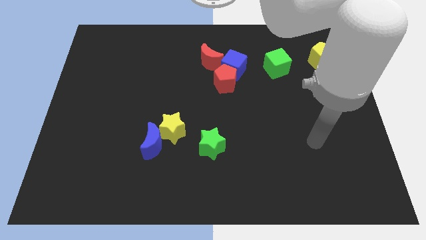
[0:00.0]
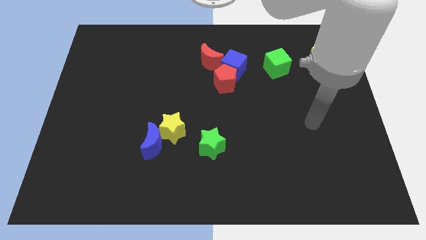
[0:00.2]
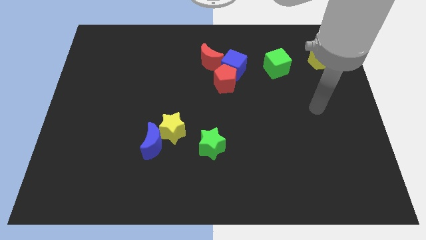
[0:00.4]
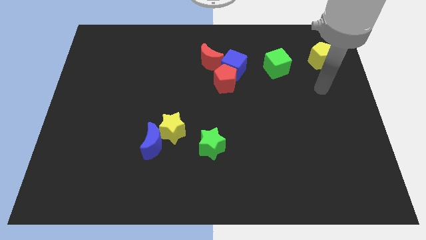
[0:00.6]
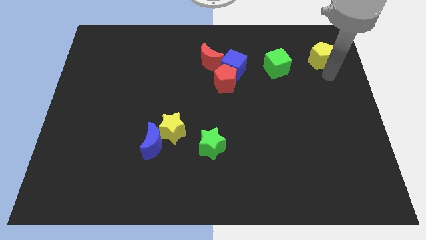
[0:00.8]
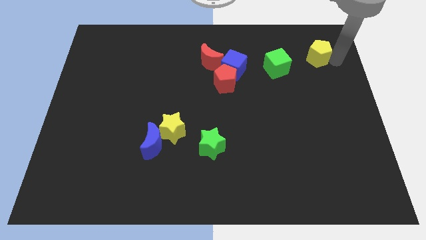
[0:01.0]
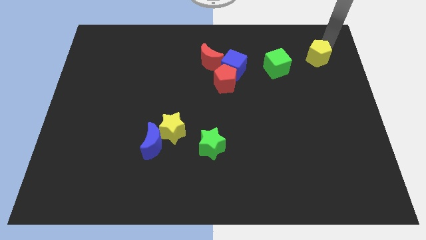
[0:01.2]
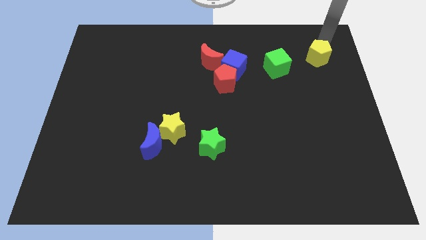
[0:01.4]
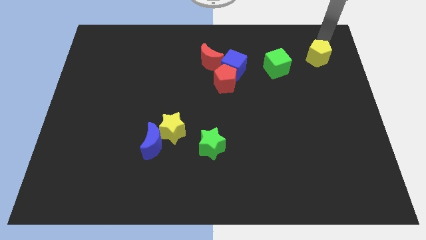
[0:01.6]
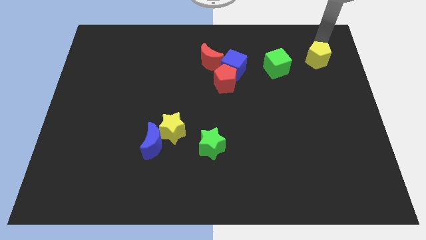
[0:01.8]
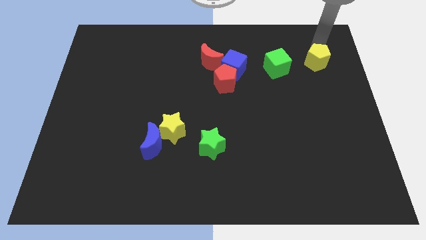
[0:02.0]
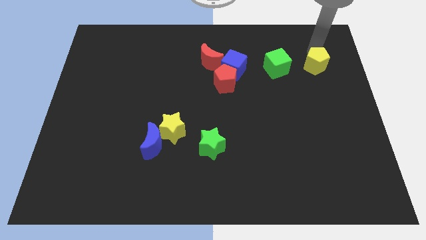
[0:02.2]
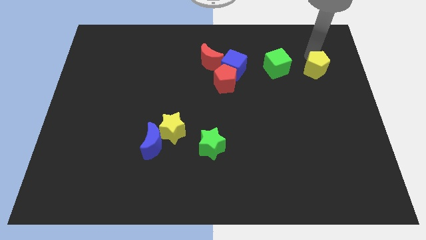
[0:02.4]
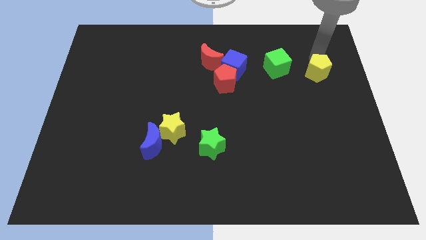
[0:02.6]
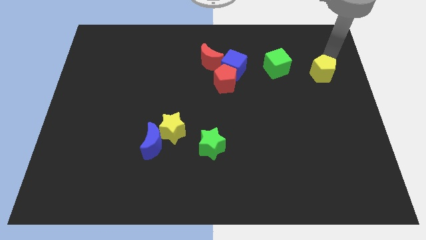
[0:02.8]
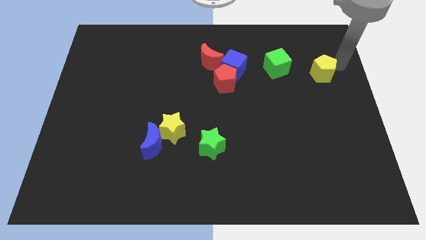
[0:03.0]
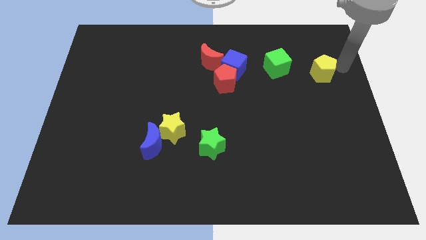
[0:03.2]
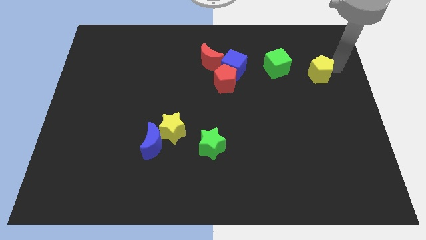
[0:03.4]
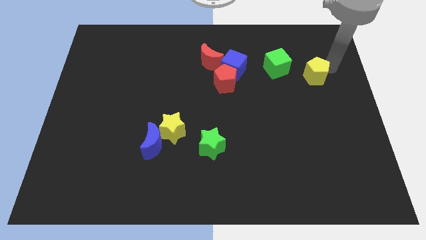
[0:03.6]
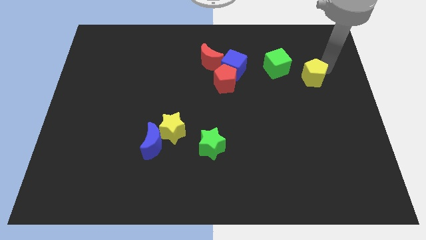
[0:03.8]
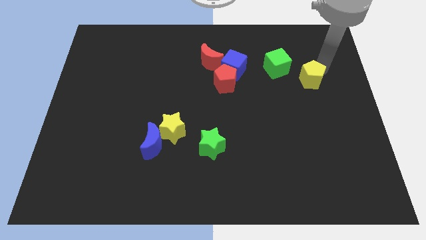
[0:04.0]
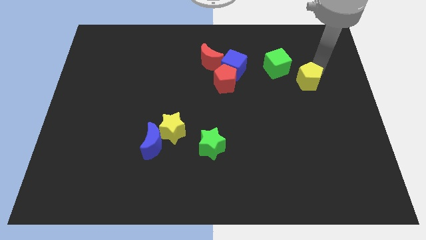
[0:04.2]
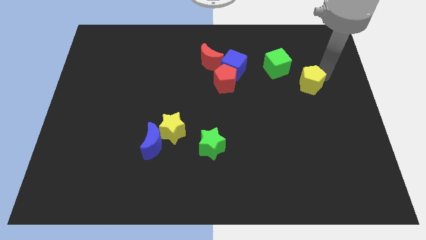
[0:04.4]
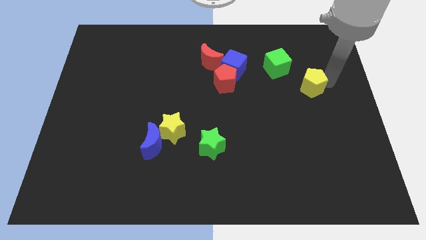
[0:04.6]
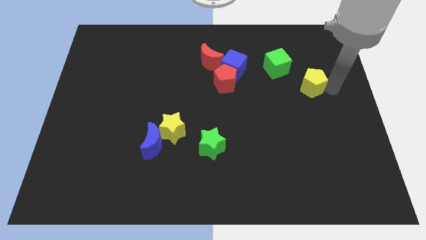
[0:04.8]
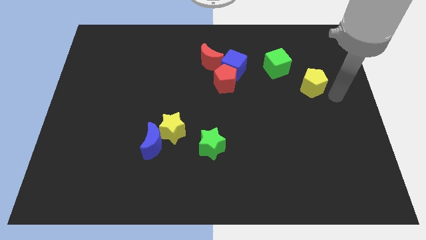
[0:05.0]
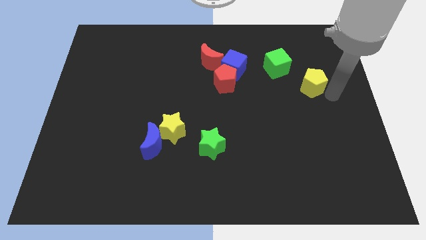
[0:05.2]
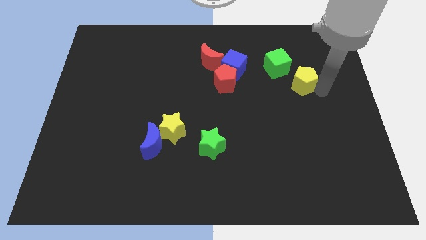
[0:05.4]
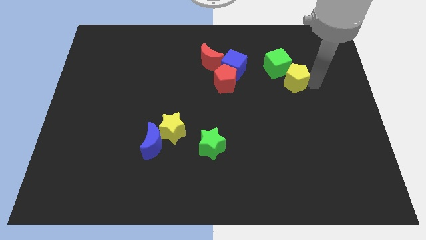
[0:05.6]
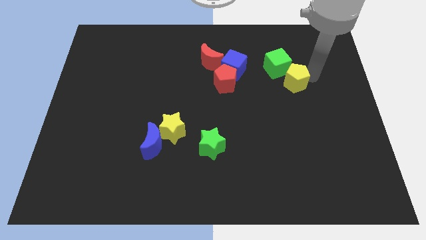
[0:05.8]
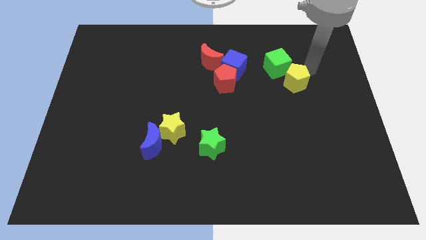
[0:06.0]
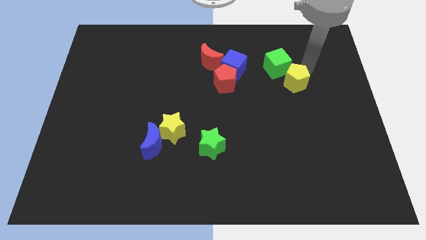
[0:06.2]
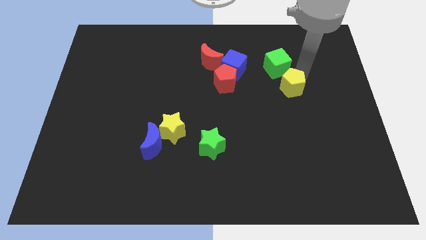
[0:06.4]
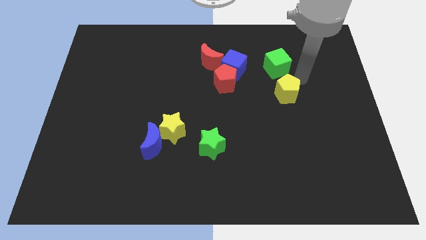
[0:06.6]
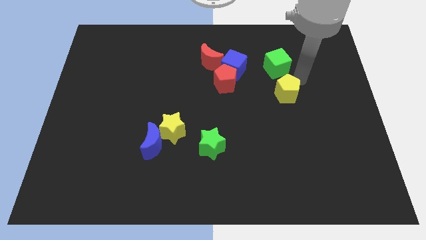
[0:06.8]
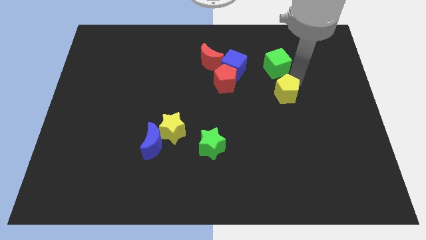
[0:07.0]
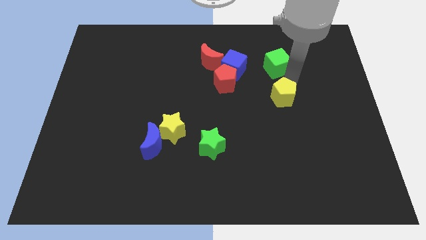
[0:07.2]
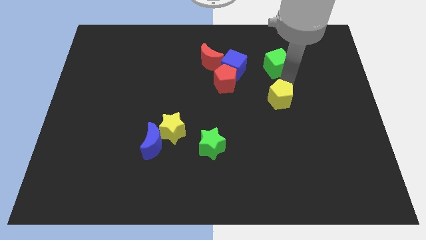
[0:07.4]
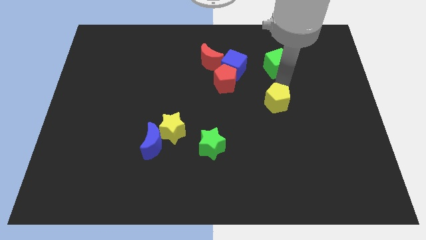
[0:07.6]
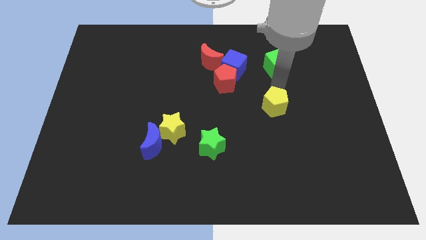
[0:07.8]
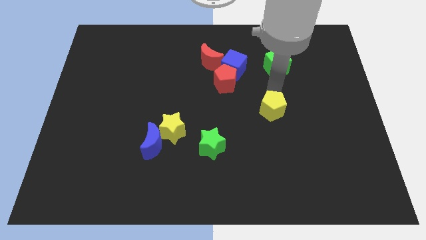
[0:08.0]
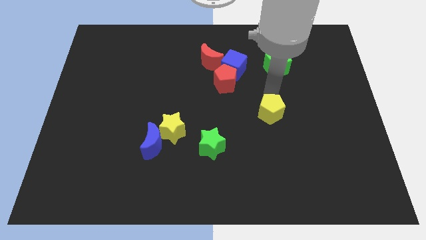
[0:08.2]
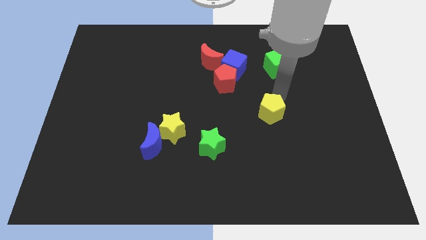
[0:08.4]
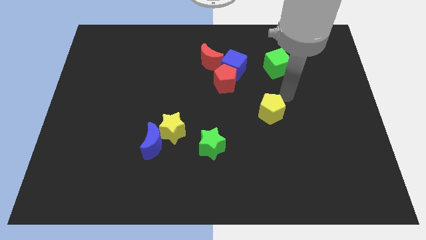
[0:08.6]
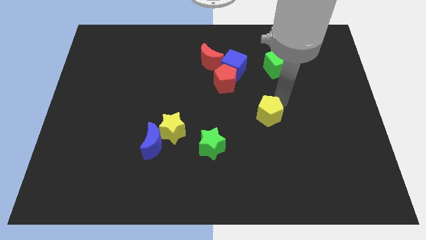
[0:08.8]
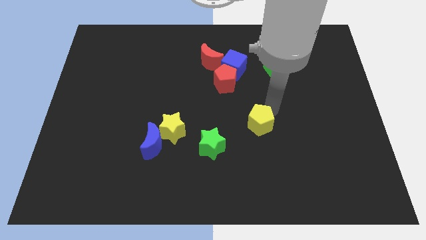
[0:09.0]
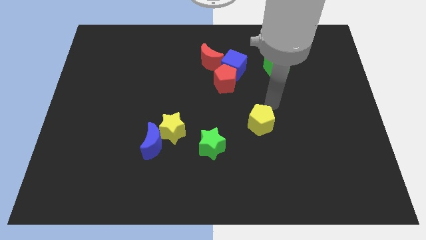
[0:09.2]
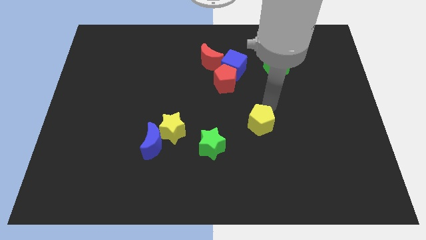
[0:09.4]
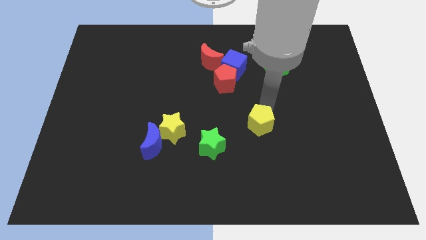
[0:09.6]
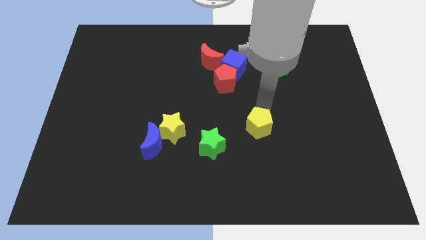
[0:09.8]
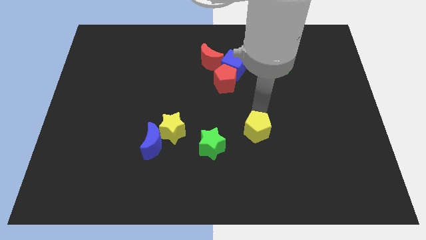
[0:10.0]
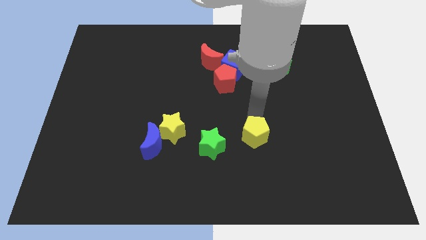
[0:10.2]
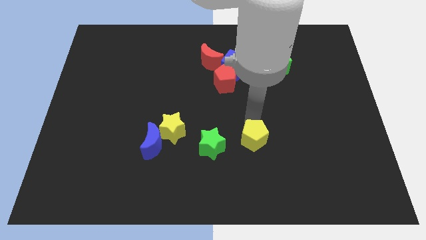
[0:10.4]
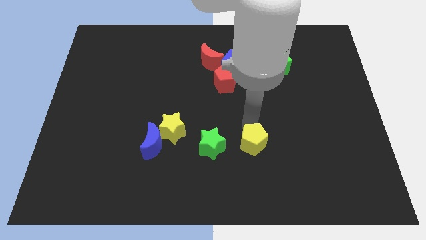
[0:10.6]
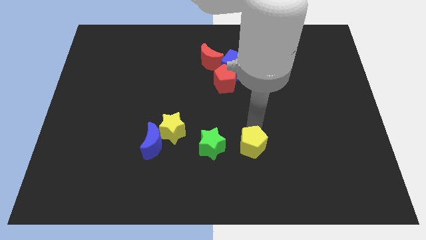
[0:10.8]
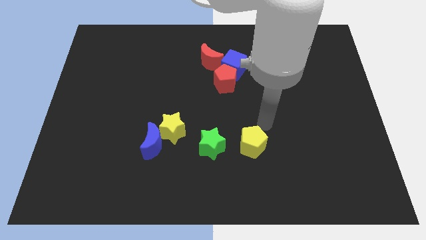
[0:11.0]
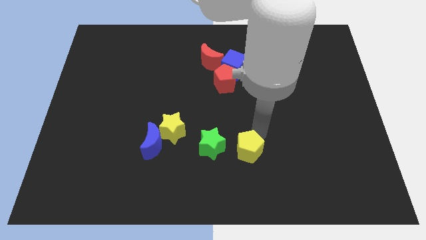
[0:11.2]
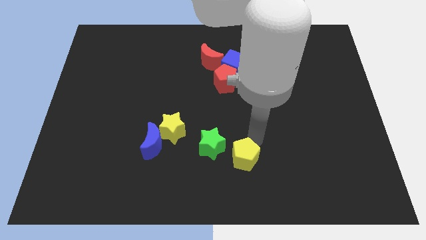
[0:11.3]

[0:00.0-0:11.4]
put the yellow pentagon to the bottom right of the green star

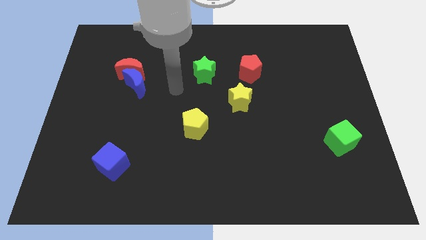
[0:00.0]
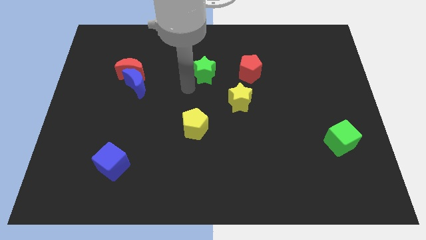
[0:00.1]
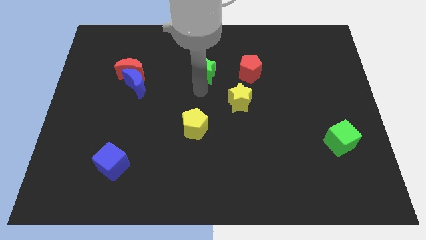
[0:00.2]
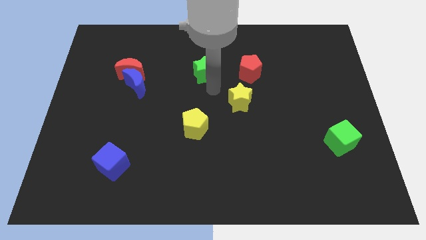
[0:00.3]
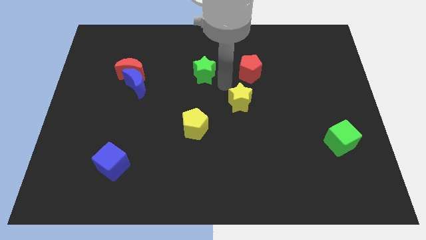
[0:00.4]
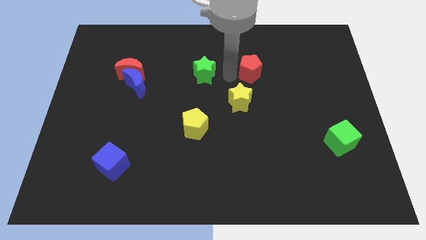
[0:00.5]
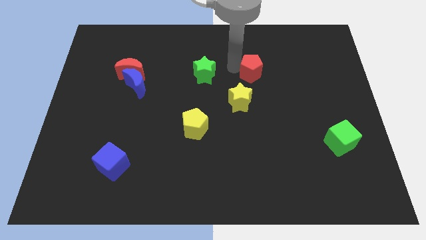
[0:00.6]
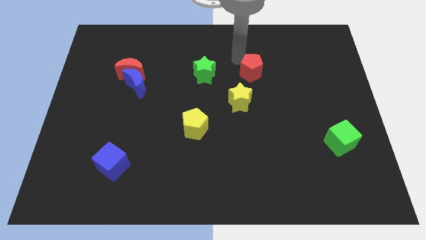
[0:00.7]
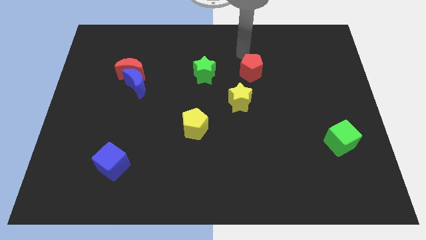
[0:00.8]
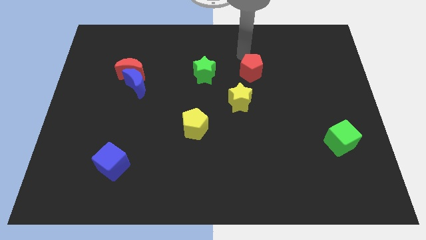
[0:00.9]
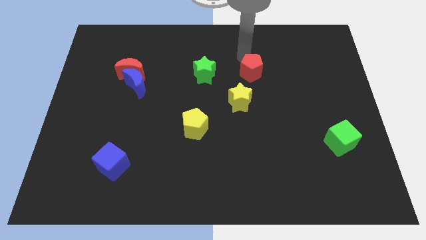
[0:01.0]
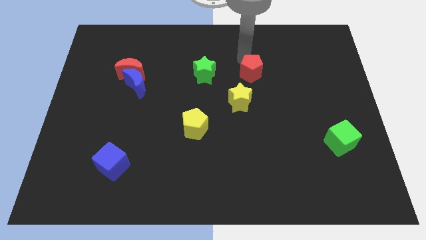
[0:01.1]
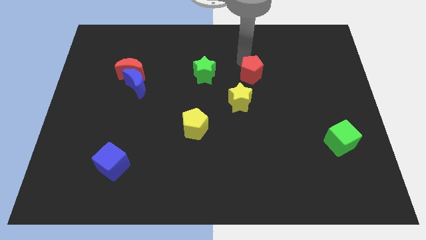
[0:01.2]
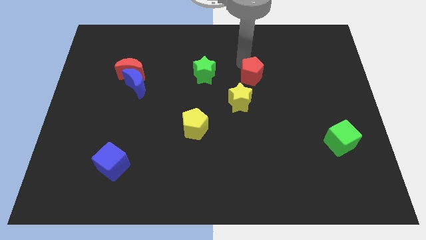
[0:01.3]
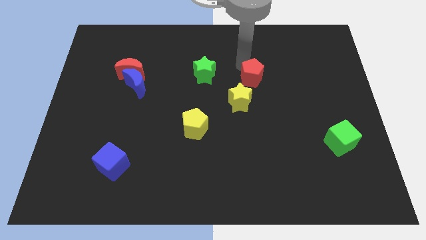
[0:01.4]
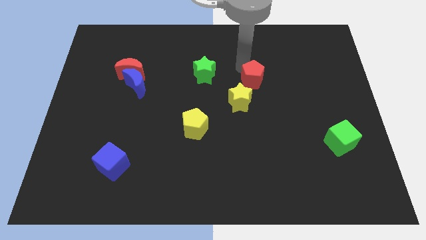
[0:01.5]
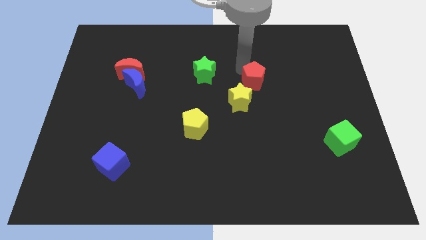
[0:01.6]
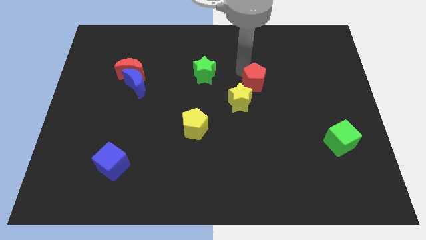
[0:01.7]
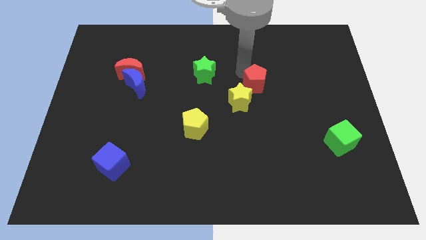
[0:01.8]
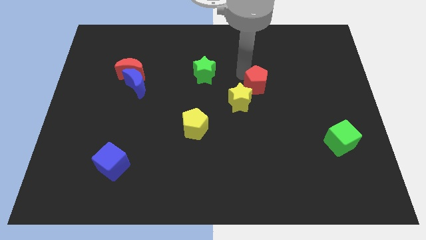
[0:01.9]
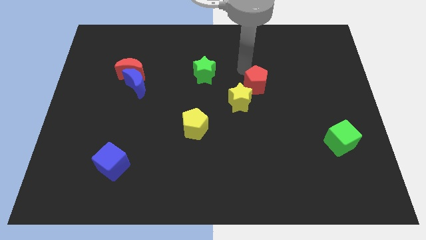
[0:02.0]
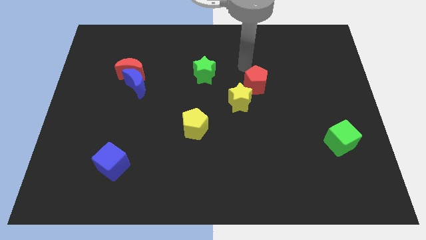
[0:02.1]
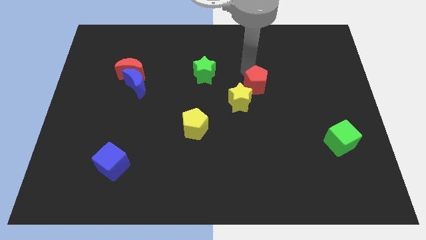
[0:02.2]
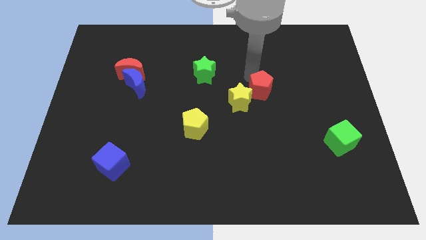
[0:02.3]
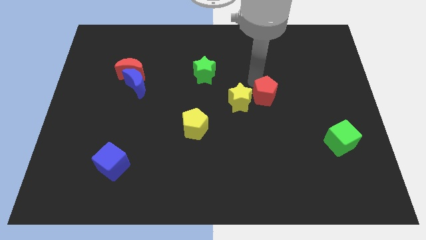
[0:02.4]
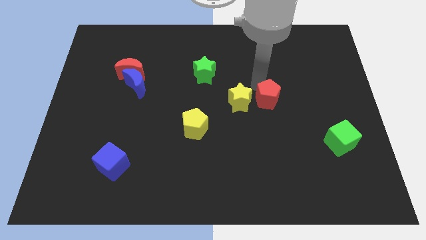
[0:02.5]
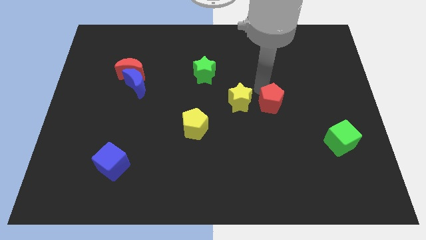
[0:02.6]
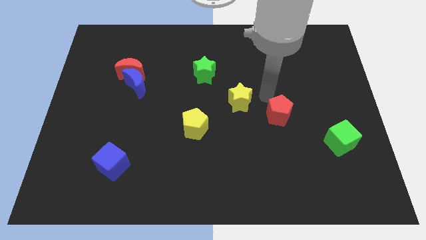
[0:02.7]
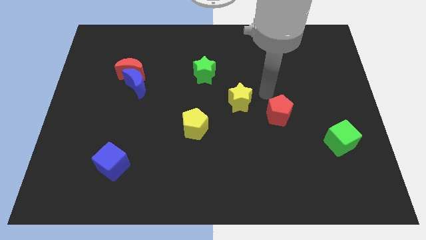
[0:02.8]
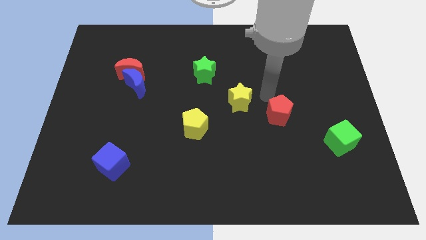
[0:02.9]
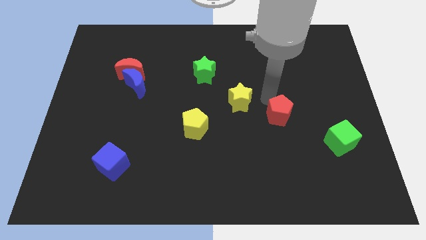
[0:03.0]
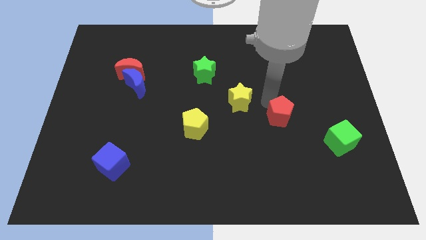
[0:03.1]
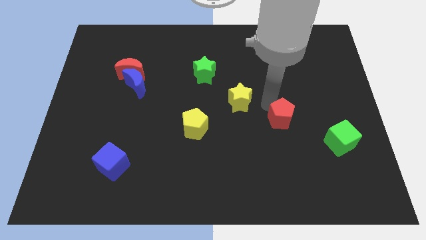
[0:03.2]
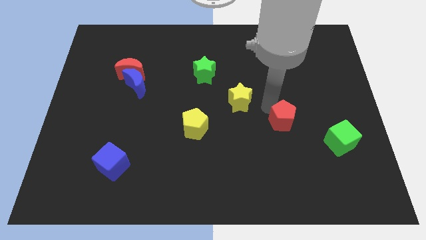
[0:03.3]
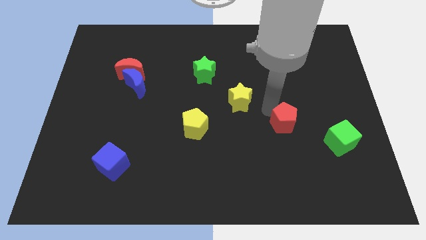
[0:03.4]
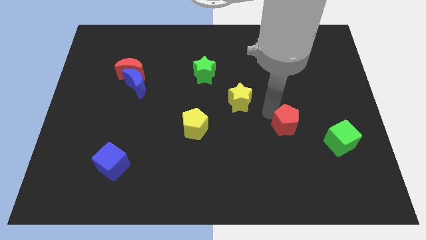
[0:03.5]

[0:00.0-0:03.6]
slide the red pentagon to the left side of the green cube
